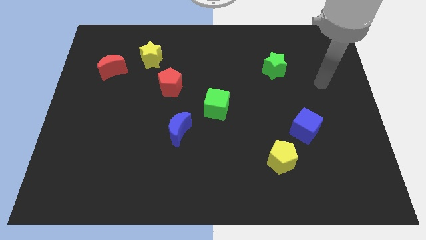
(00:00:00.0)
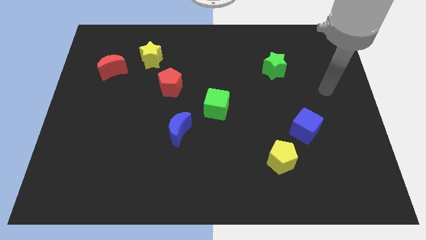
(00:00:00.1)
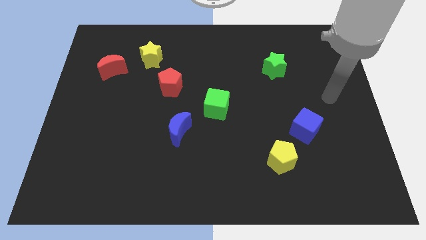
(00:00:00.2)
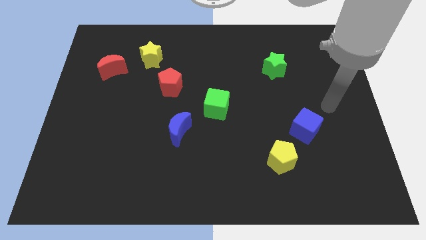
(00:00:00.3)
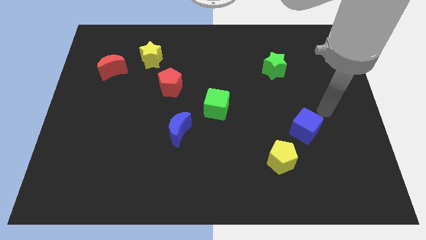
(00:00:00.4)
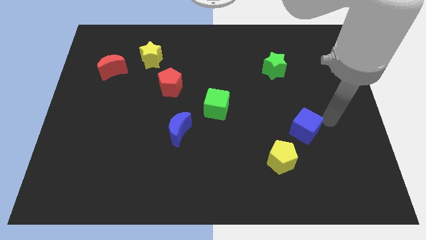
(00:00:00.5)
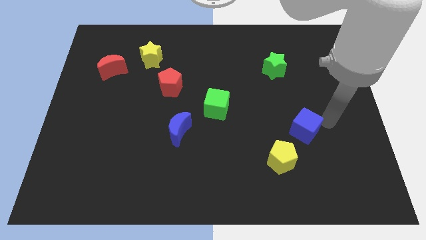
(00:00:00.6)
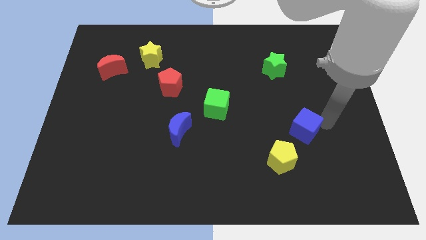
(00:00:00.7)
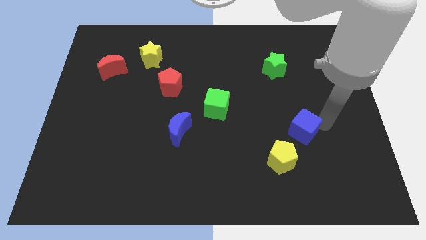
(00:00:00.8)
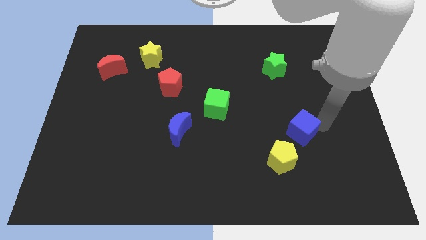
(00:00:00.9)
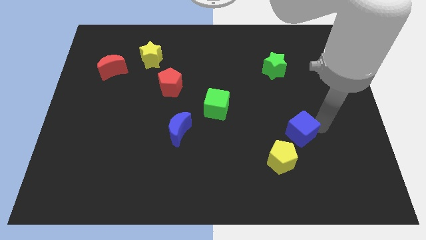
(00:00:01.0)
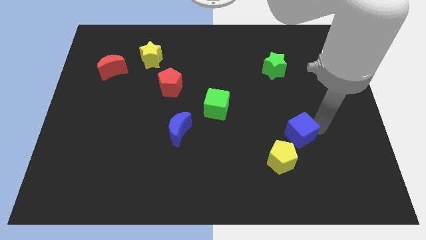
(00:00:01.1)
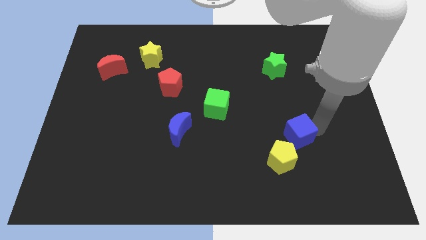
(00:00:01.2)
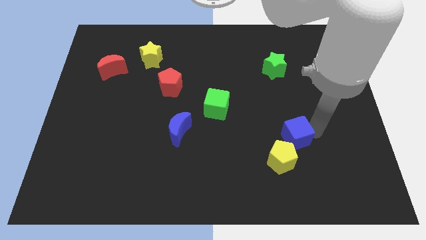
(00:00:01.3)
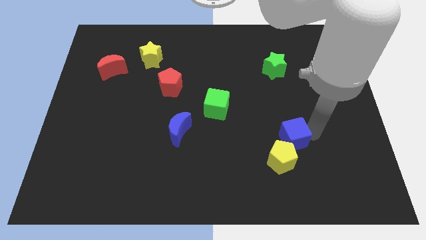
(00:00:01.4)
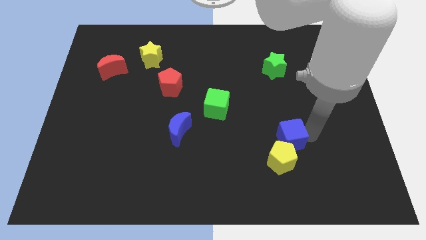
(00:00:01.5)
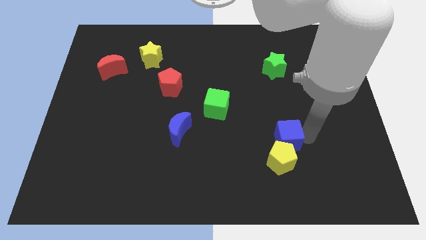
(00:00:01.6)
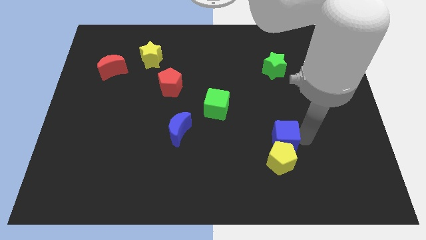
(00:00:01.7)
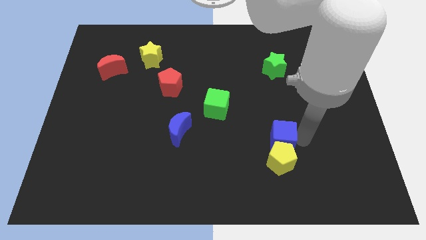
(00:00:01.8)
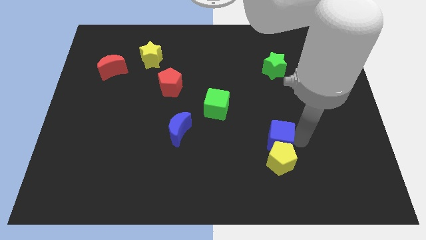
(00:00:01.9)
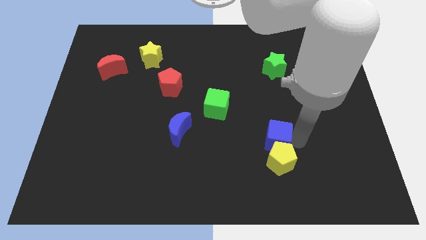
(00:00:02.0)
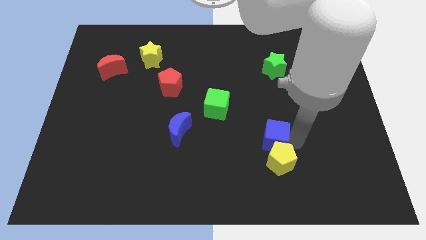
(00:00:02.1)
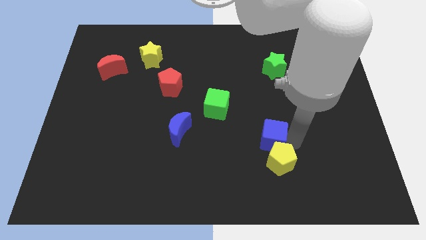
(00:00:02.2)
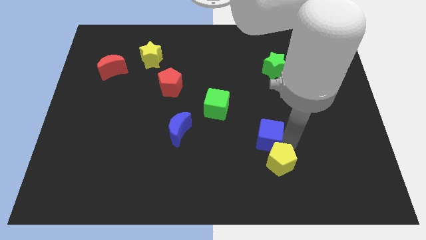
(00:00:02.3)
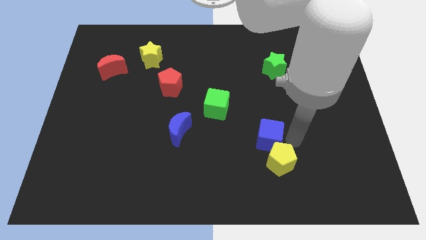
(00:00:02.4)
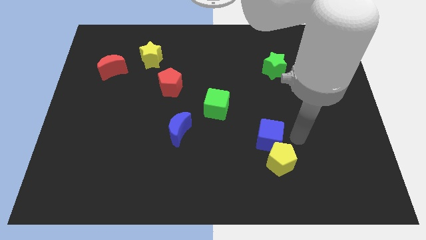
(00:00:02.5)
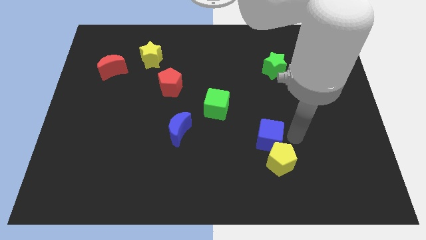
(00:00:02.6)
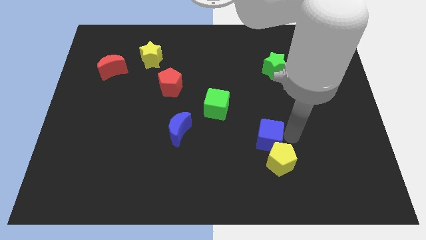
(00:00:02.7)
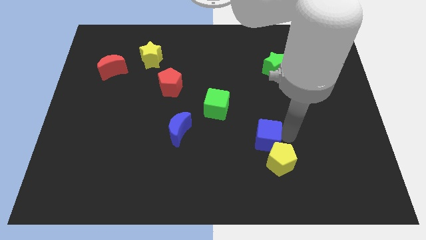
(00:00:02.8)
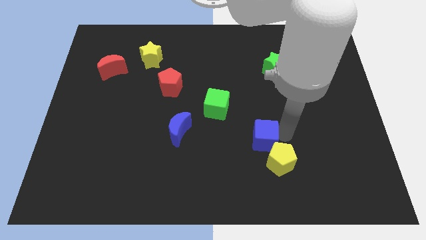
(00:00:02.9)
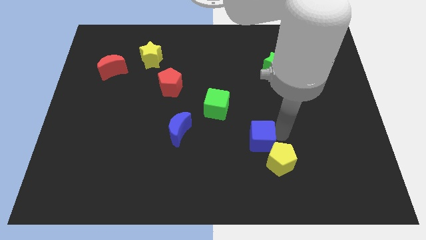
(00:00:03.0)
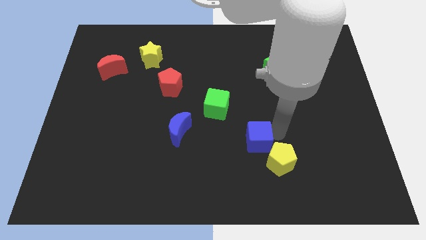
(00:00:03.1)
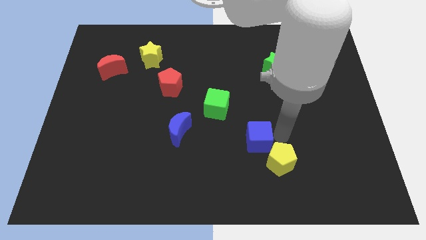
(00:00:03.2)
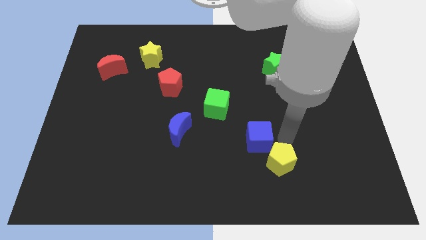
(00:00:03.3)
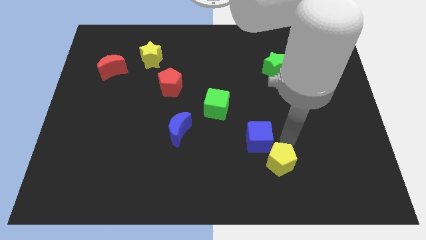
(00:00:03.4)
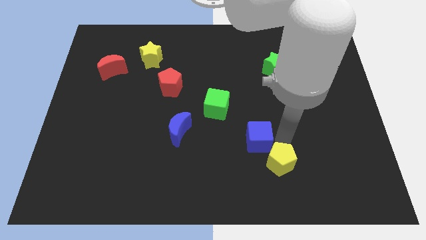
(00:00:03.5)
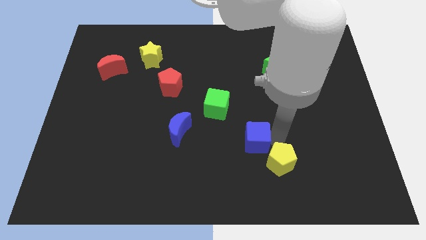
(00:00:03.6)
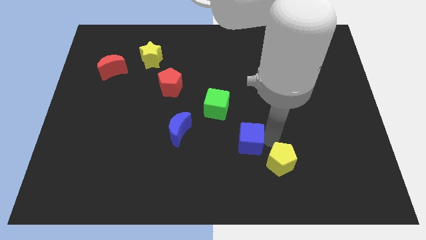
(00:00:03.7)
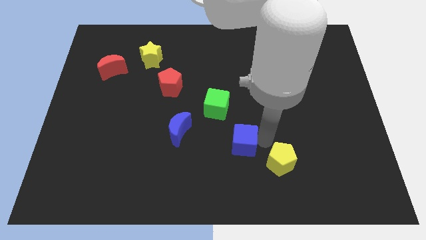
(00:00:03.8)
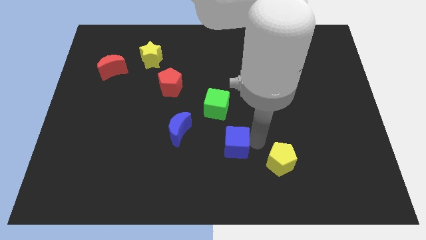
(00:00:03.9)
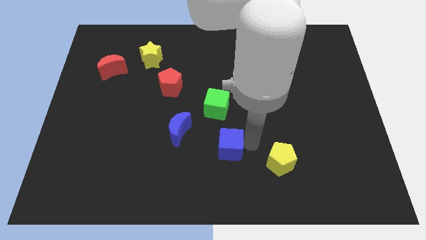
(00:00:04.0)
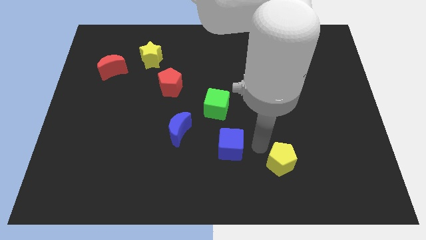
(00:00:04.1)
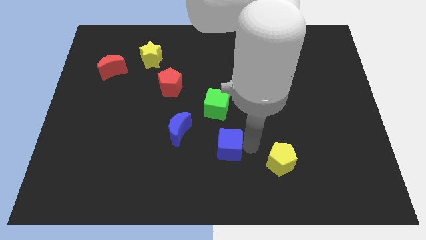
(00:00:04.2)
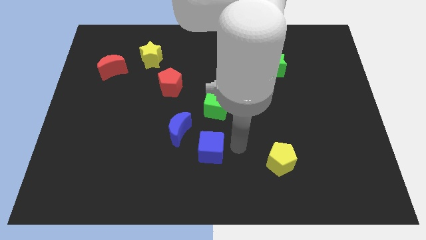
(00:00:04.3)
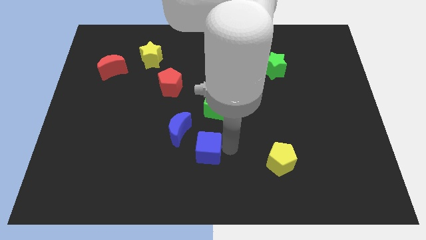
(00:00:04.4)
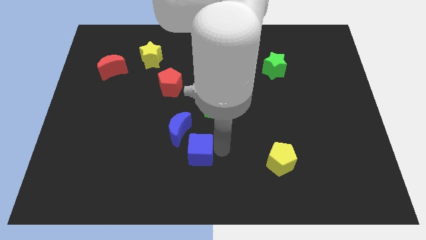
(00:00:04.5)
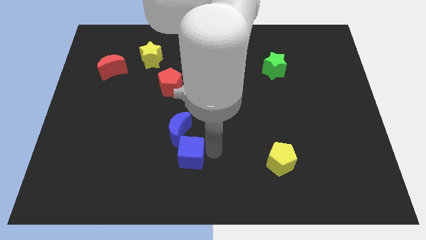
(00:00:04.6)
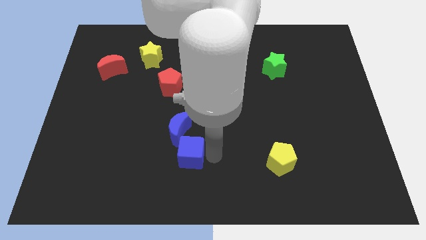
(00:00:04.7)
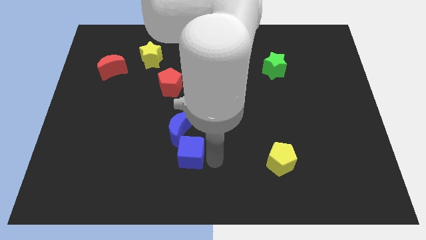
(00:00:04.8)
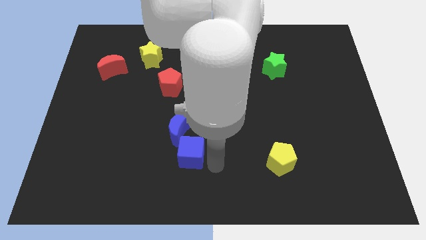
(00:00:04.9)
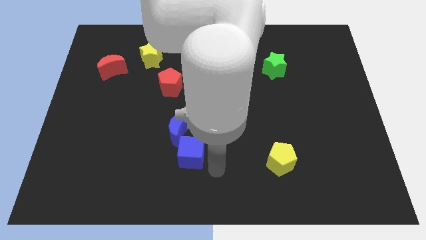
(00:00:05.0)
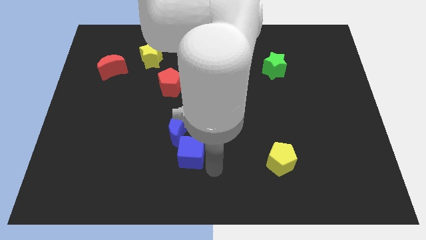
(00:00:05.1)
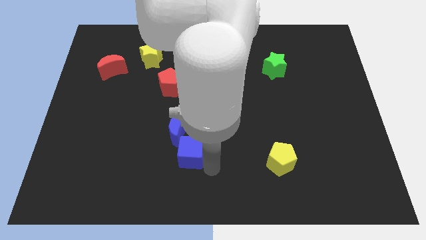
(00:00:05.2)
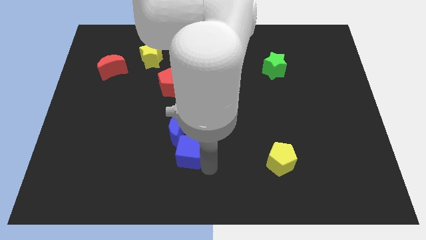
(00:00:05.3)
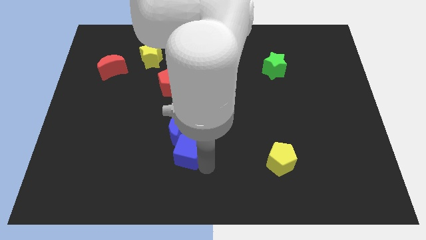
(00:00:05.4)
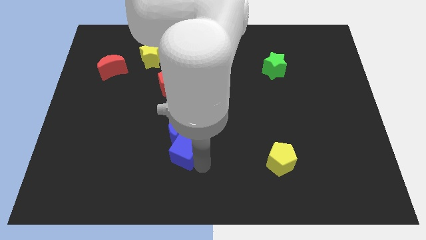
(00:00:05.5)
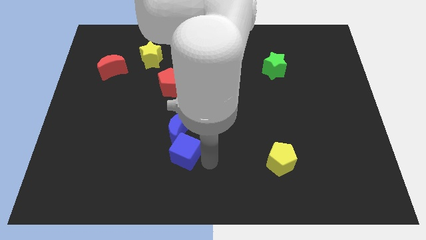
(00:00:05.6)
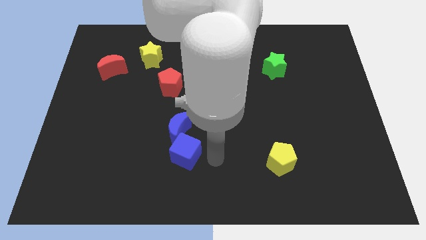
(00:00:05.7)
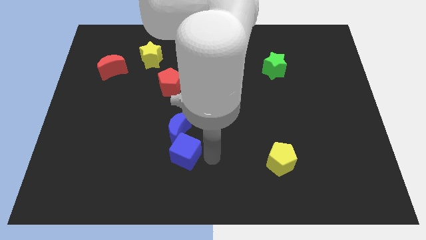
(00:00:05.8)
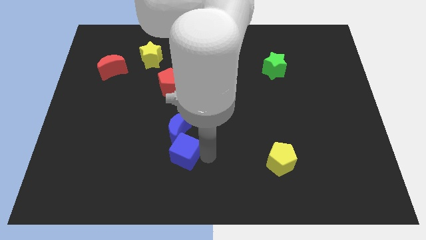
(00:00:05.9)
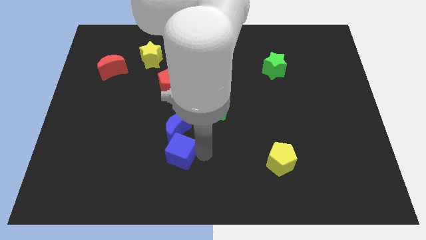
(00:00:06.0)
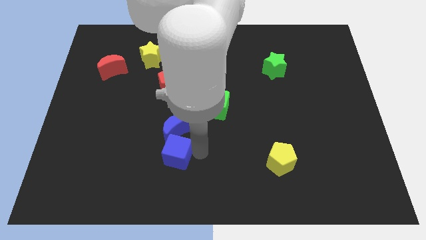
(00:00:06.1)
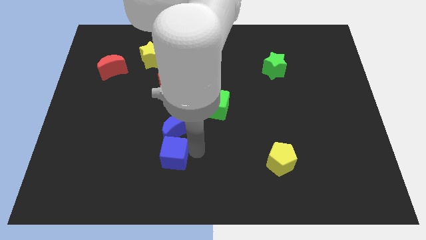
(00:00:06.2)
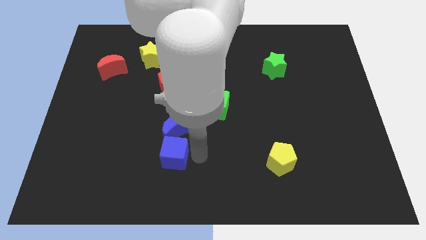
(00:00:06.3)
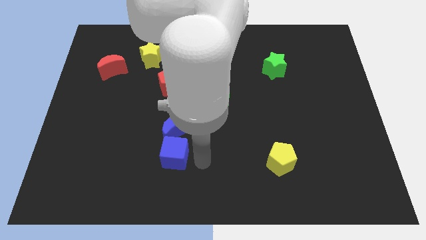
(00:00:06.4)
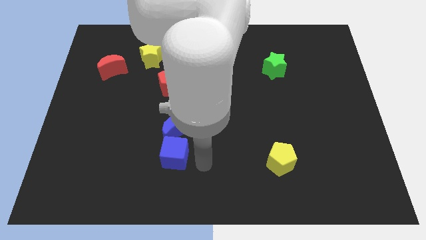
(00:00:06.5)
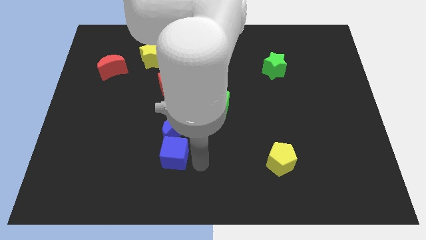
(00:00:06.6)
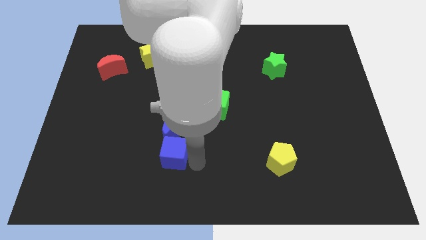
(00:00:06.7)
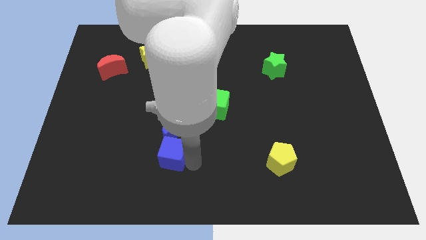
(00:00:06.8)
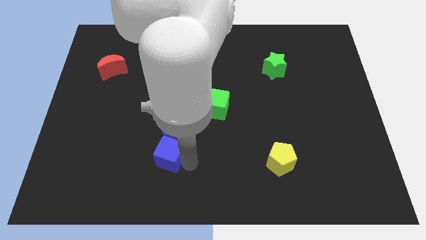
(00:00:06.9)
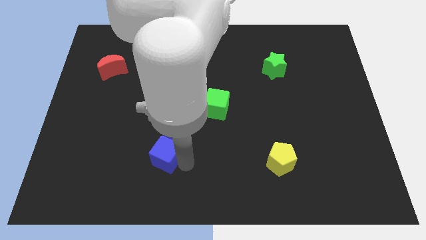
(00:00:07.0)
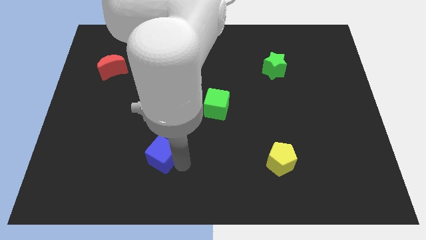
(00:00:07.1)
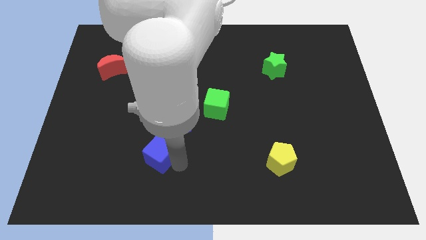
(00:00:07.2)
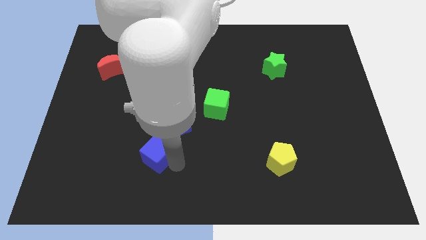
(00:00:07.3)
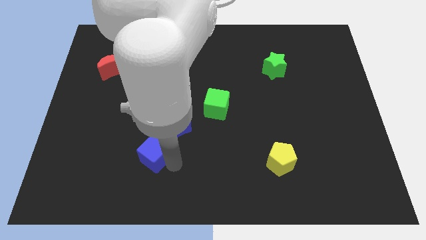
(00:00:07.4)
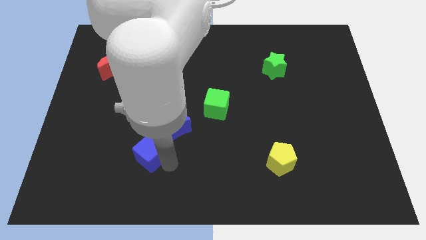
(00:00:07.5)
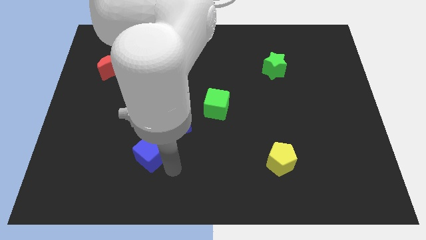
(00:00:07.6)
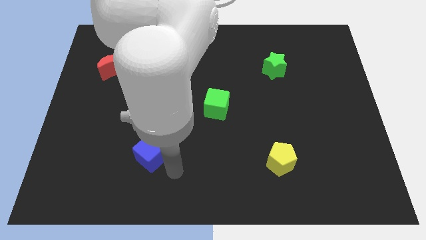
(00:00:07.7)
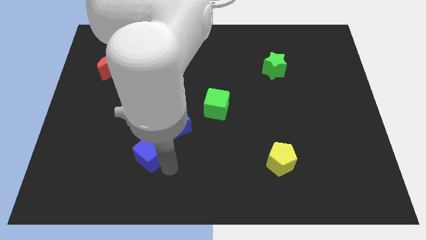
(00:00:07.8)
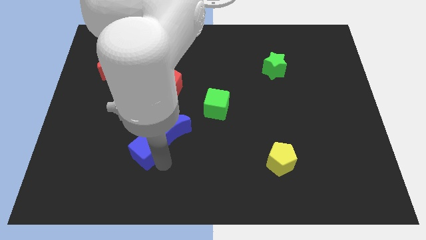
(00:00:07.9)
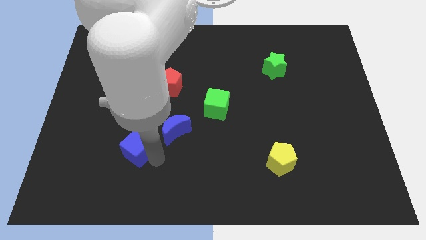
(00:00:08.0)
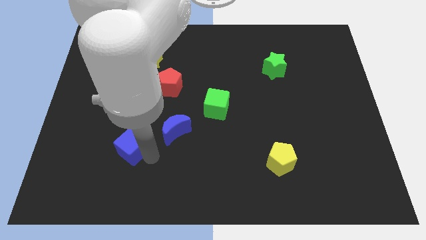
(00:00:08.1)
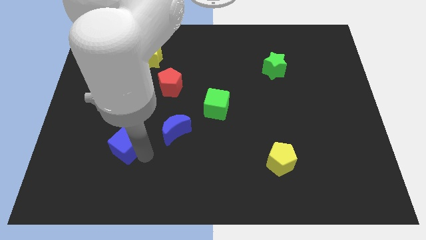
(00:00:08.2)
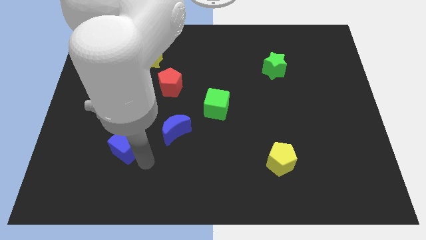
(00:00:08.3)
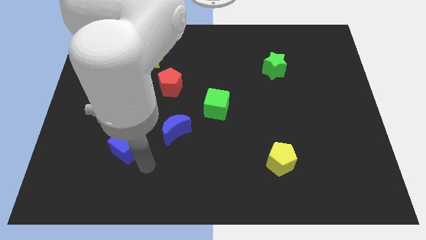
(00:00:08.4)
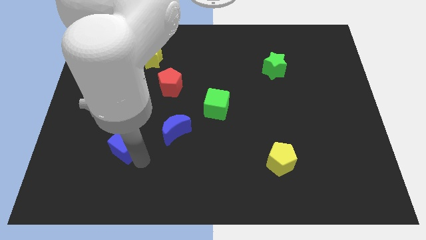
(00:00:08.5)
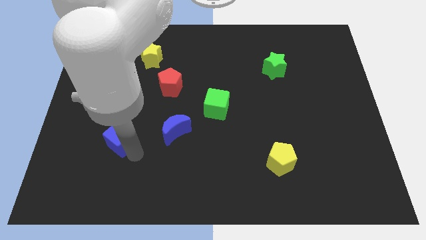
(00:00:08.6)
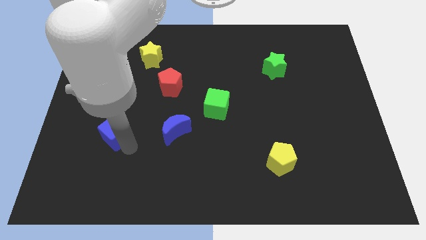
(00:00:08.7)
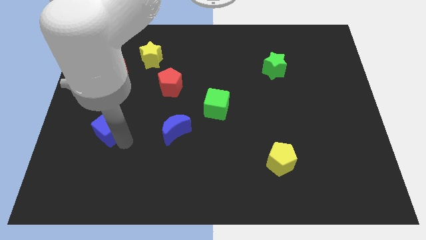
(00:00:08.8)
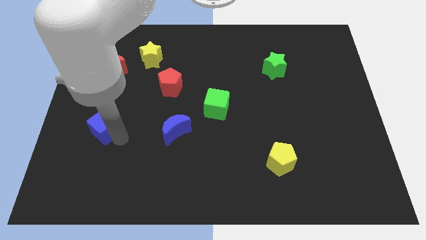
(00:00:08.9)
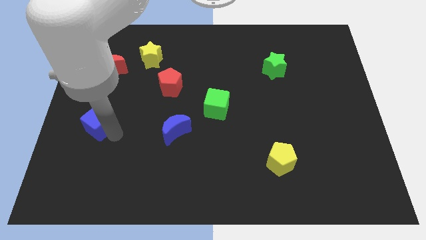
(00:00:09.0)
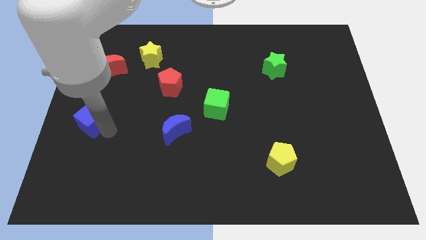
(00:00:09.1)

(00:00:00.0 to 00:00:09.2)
push the blue cube to the left side of the board
